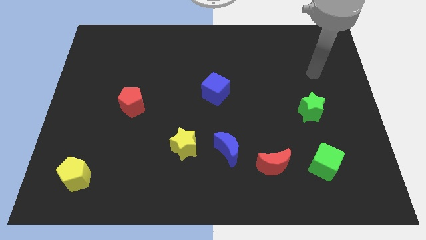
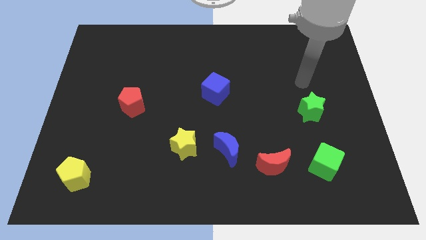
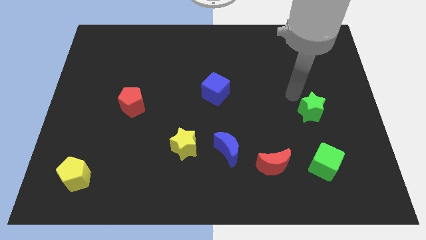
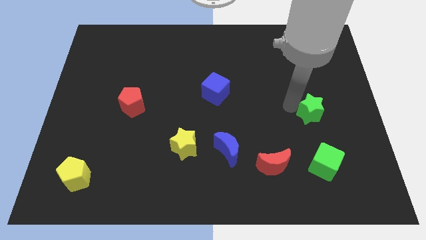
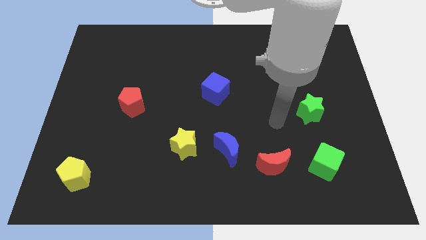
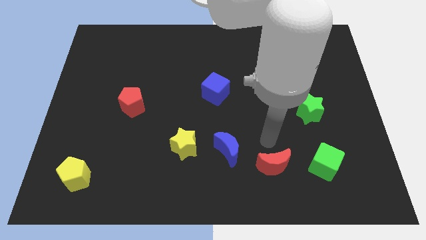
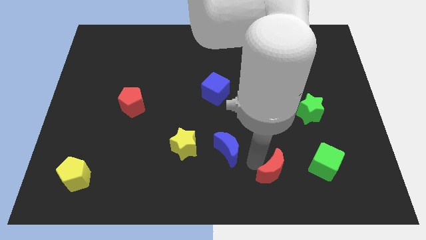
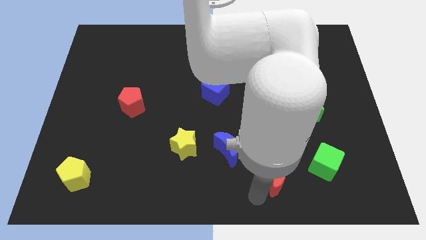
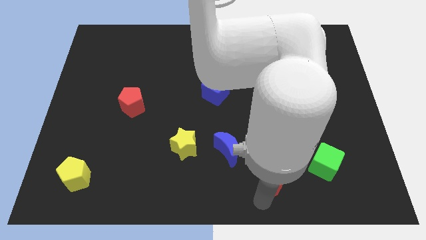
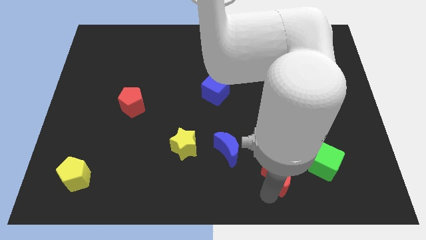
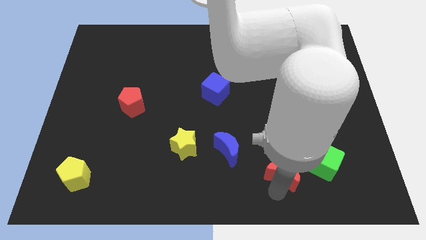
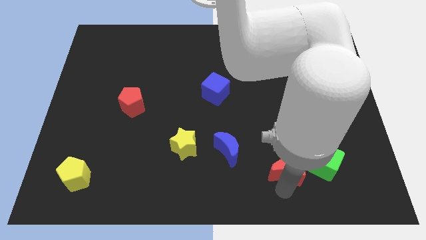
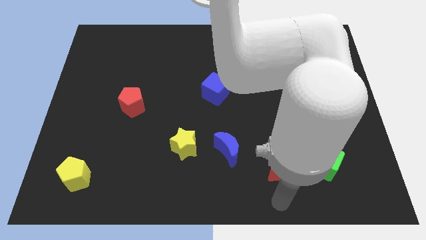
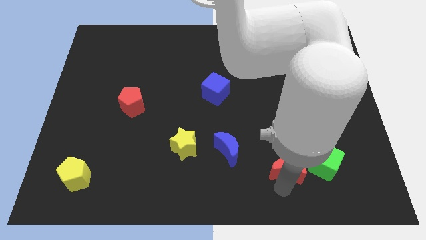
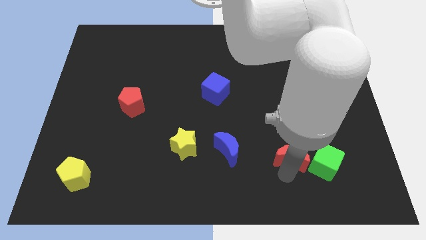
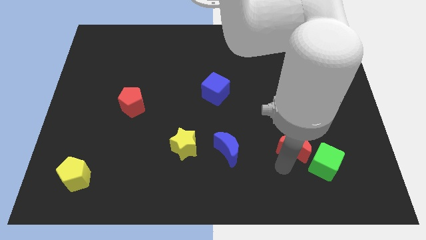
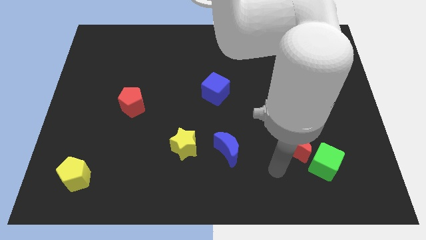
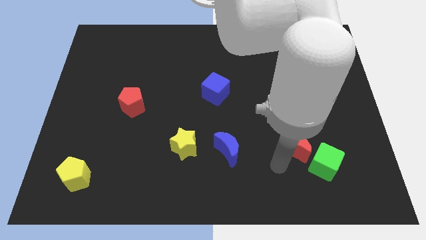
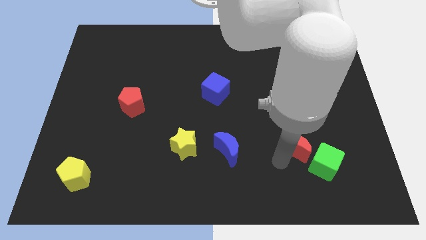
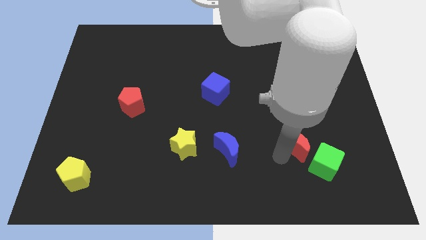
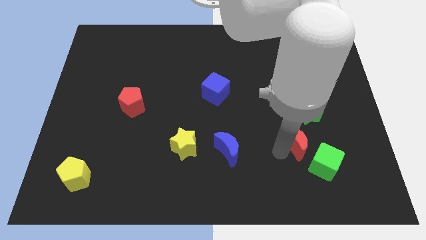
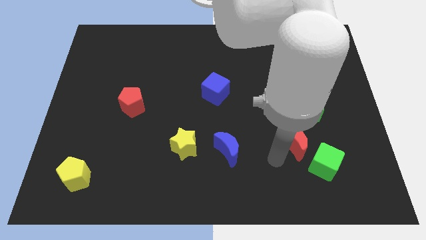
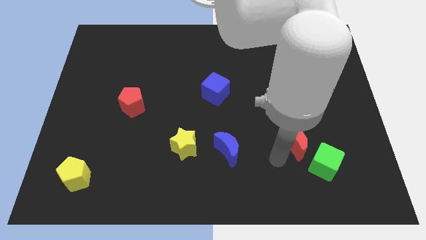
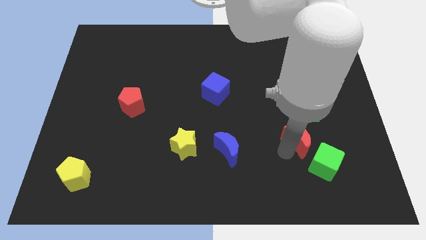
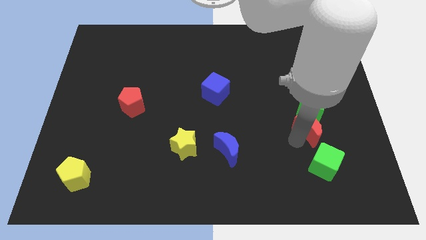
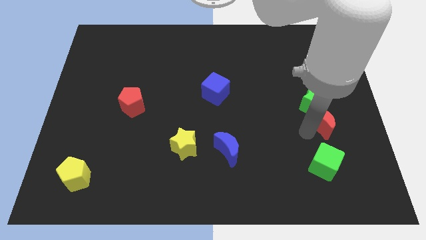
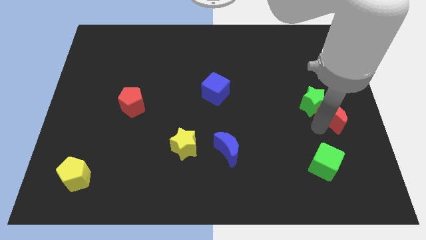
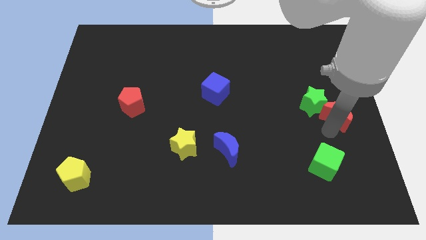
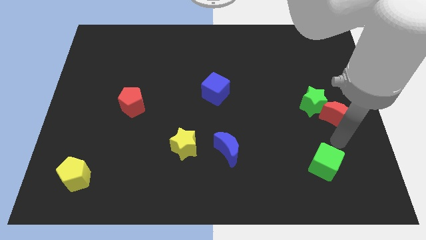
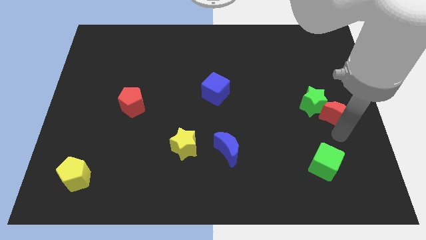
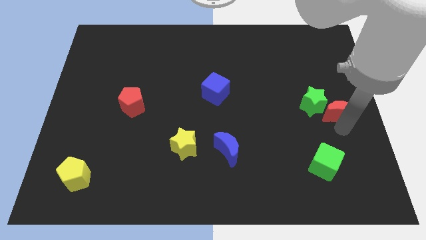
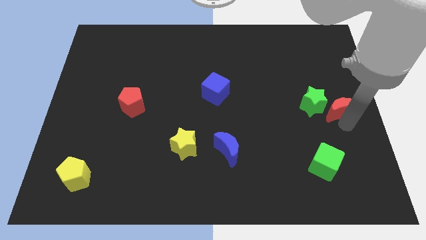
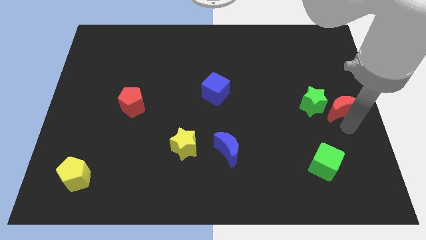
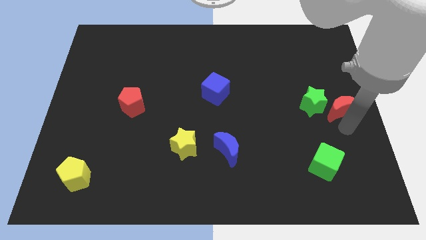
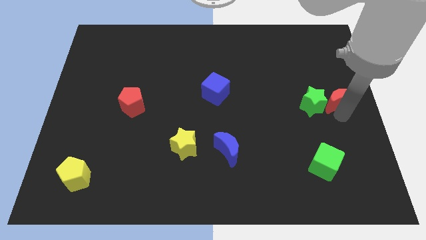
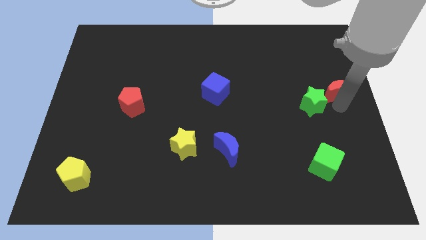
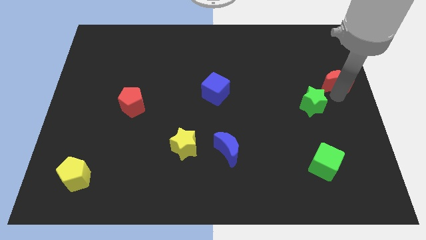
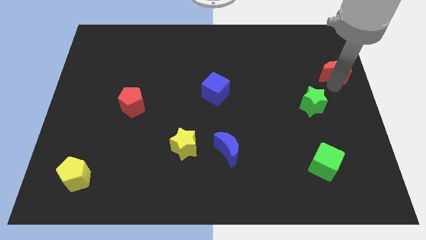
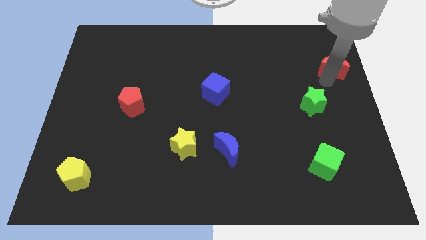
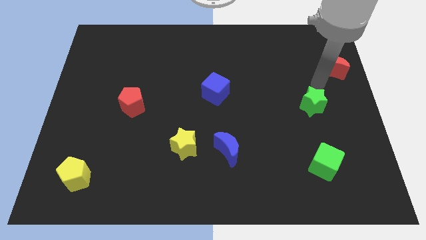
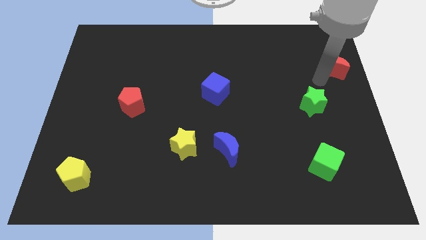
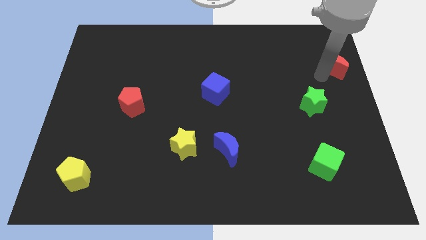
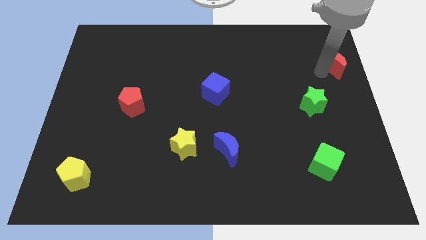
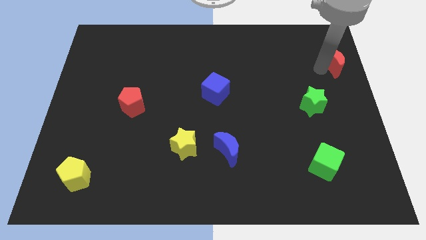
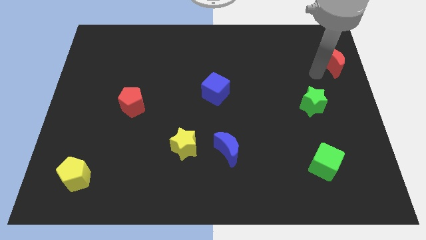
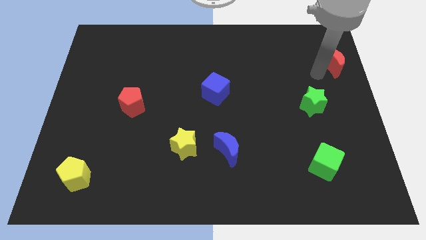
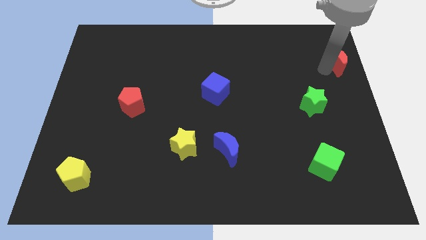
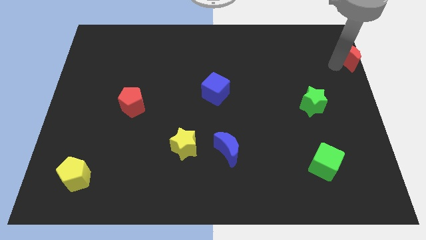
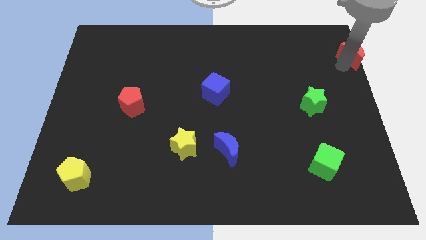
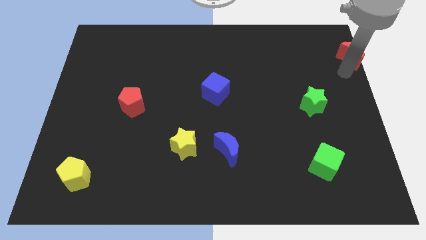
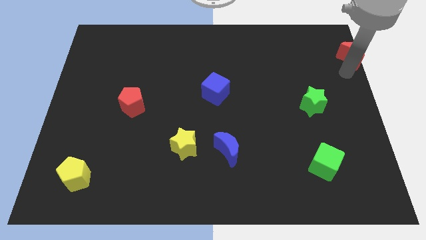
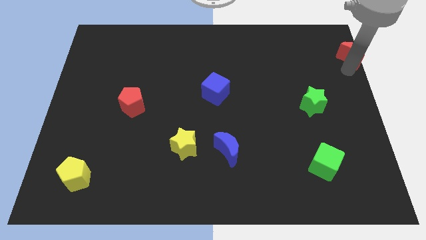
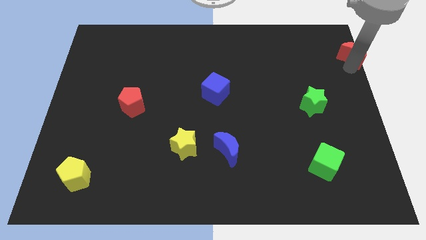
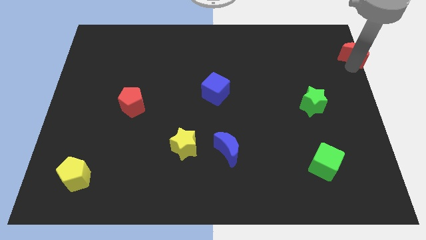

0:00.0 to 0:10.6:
slide the red moon to the top right

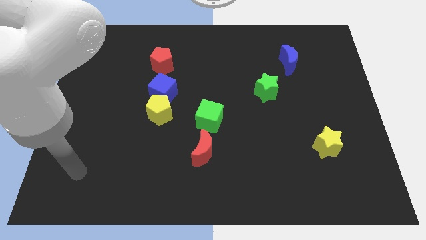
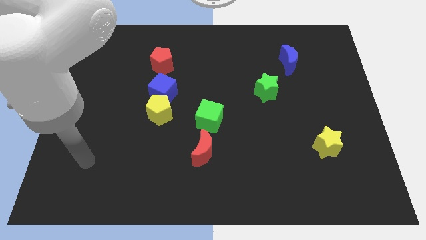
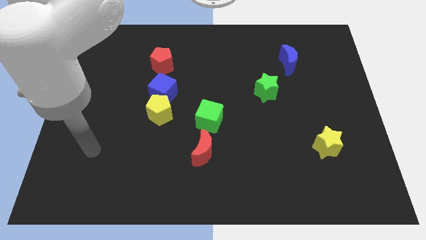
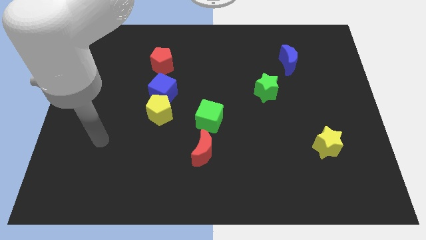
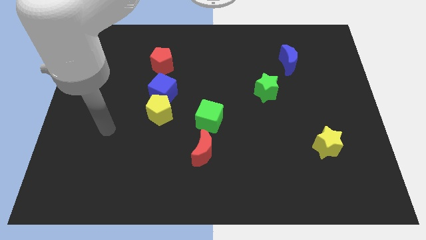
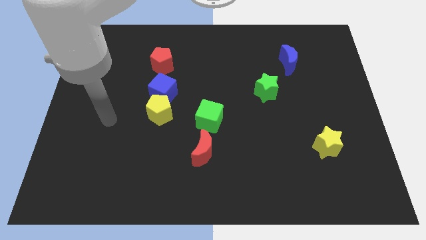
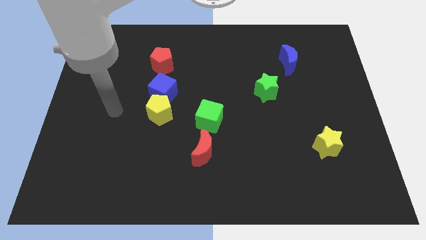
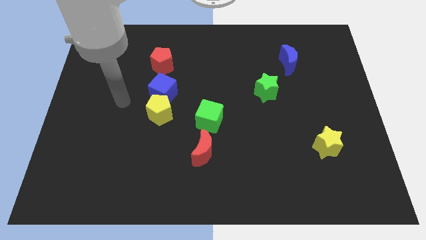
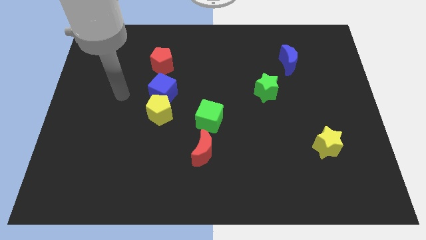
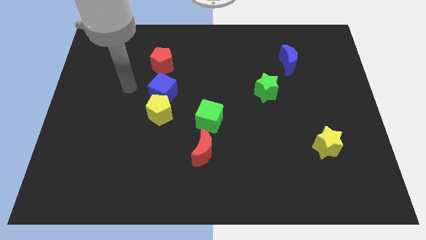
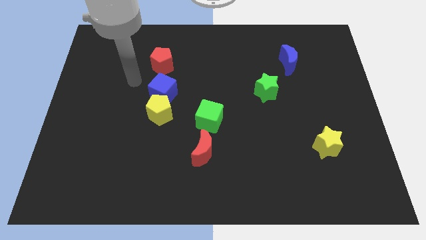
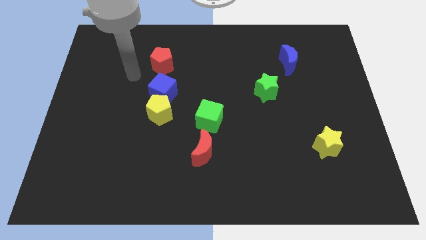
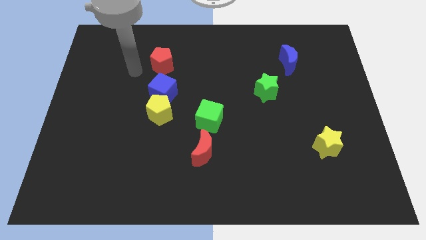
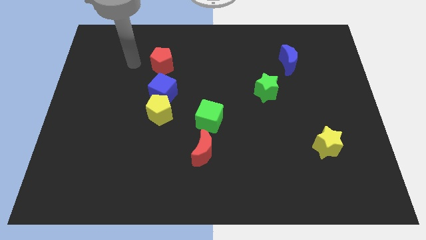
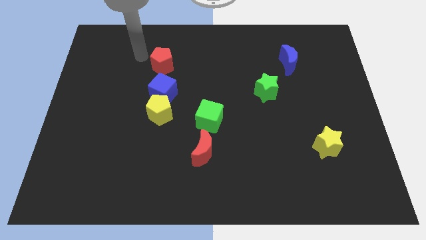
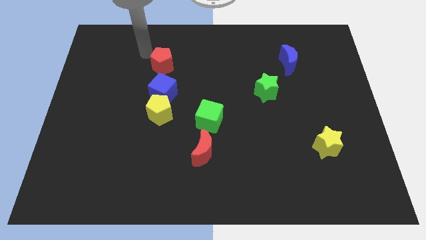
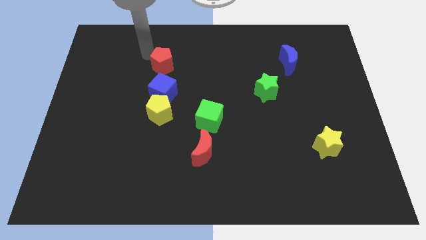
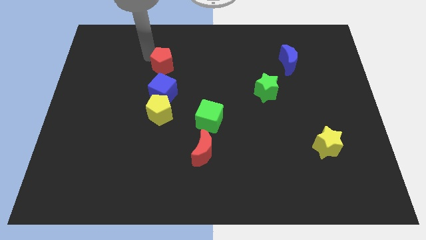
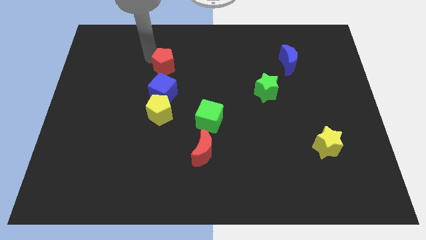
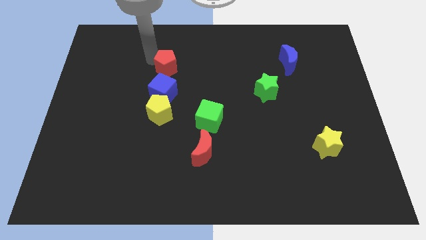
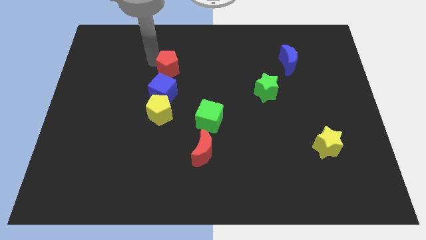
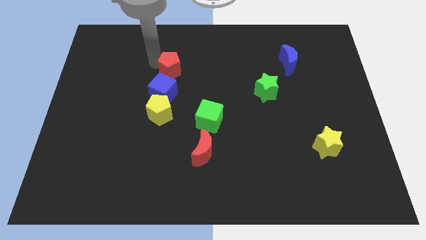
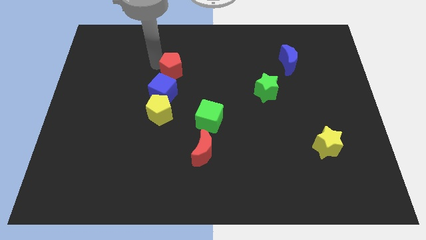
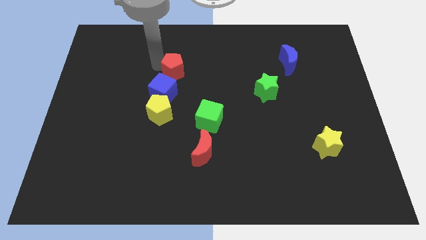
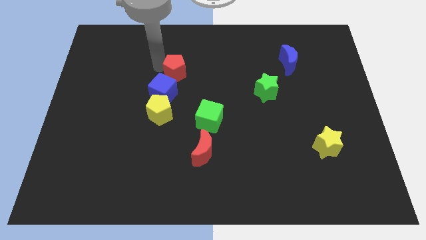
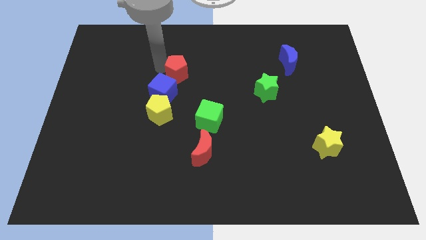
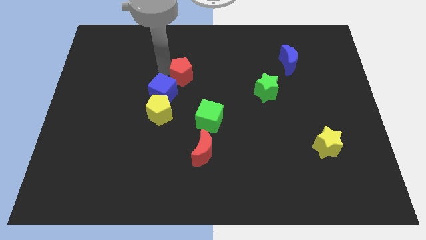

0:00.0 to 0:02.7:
move the red pentagon to the center
